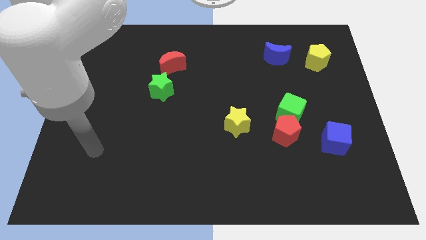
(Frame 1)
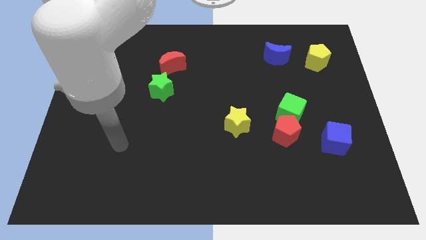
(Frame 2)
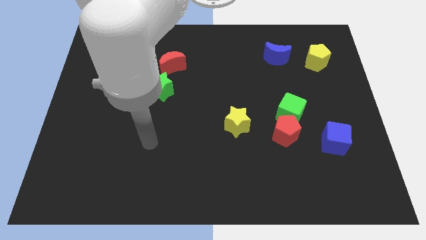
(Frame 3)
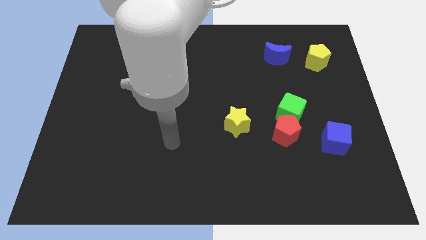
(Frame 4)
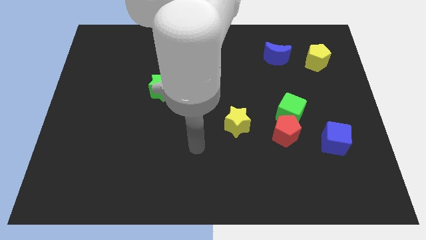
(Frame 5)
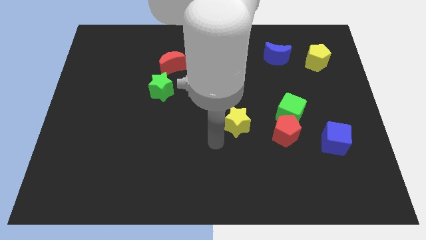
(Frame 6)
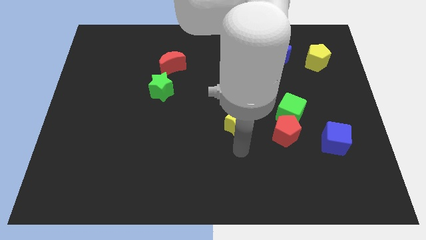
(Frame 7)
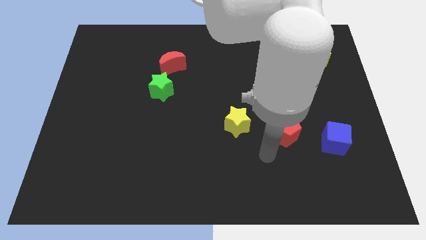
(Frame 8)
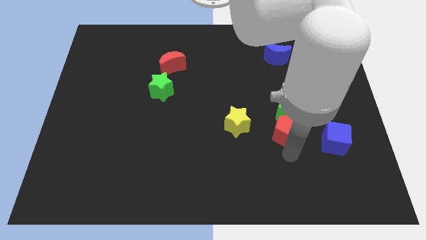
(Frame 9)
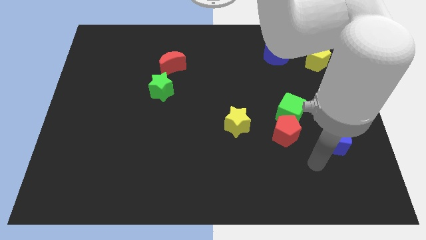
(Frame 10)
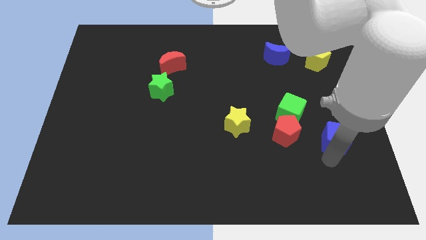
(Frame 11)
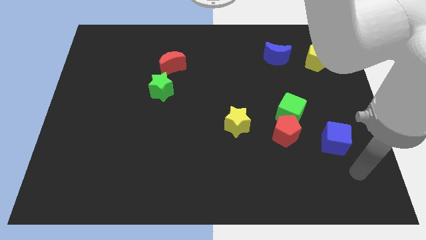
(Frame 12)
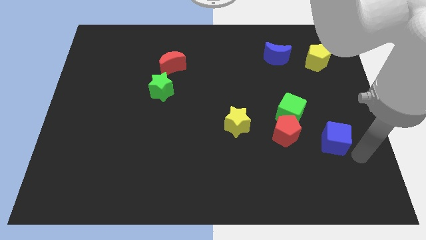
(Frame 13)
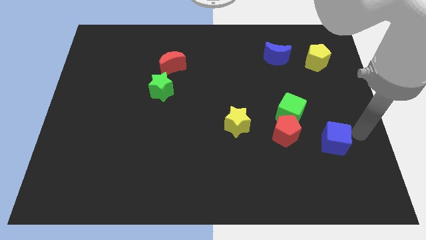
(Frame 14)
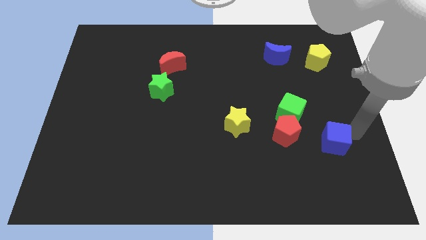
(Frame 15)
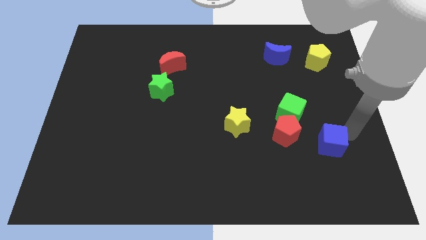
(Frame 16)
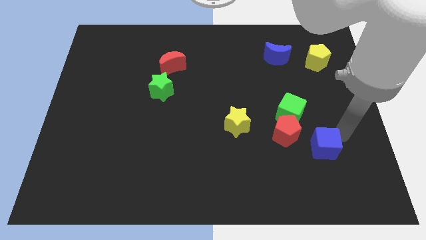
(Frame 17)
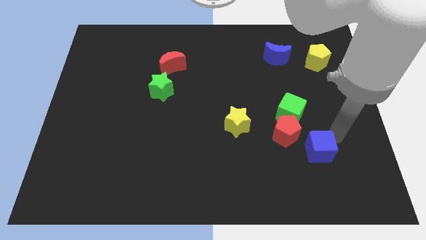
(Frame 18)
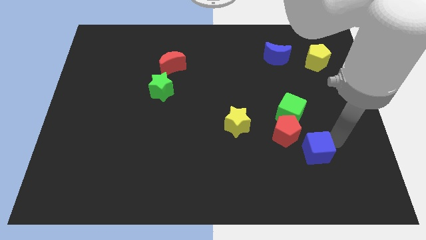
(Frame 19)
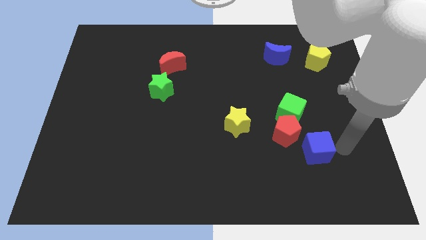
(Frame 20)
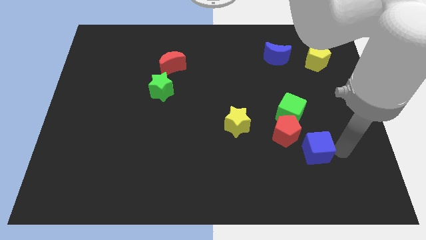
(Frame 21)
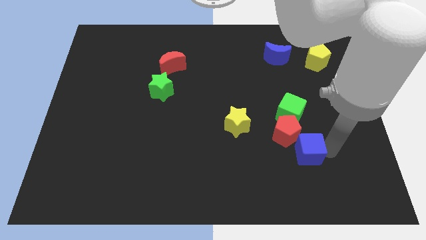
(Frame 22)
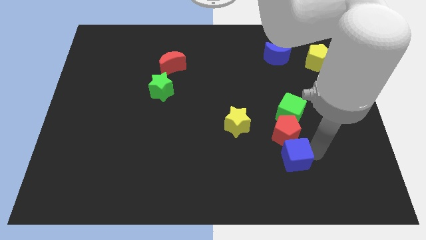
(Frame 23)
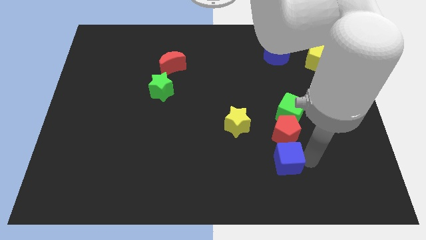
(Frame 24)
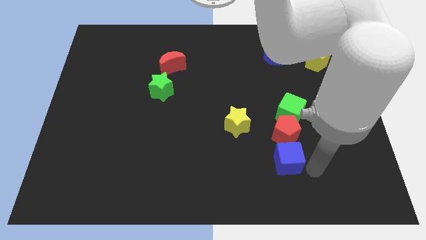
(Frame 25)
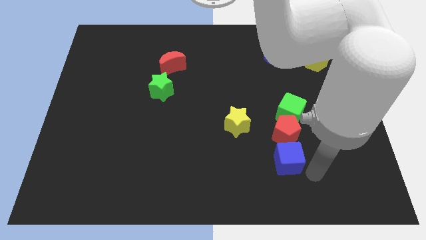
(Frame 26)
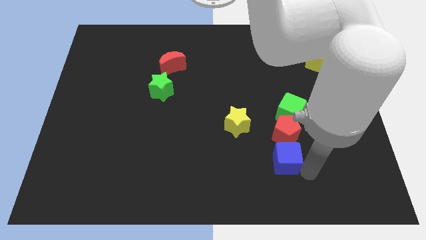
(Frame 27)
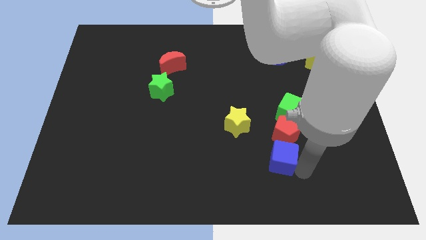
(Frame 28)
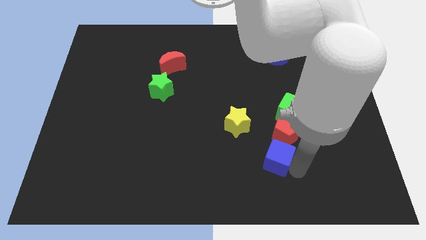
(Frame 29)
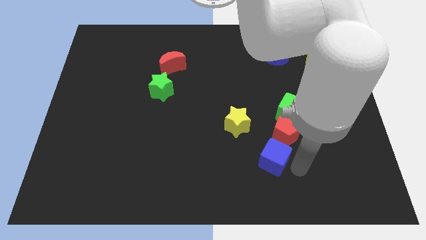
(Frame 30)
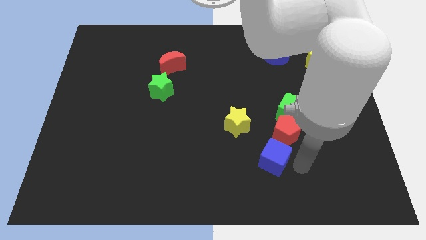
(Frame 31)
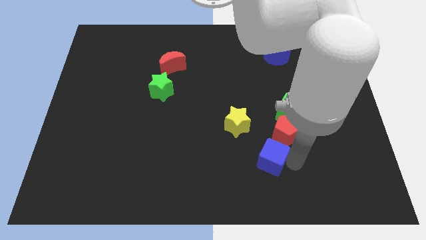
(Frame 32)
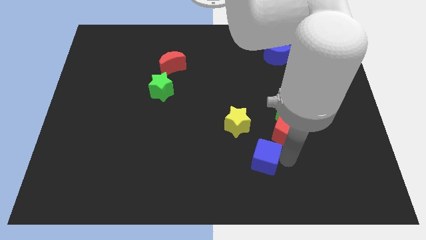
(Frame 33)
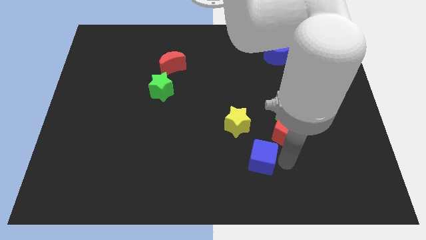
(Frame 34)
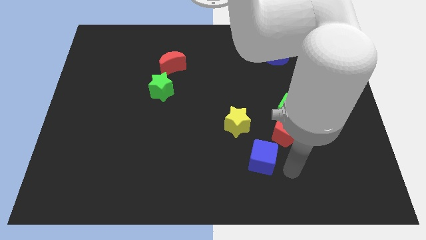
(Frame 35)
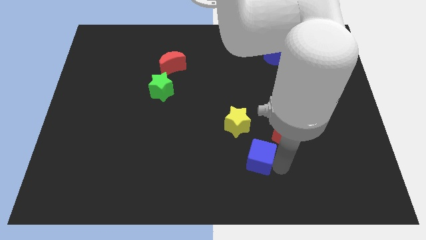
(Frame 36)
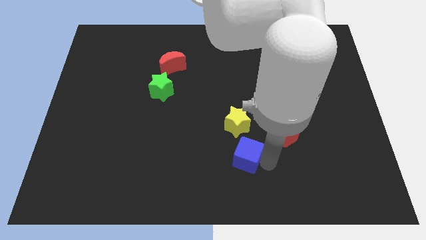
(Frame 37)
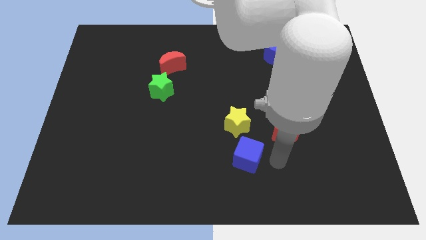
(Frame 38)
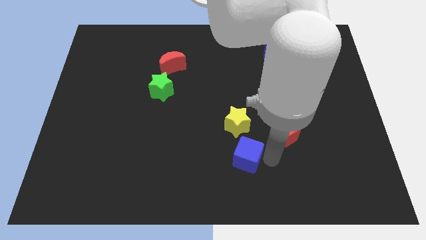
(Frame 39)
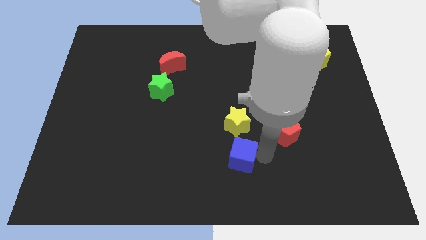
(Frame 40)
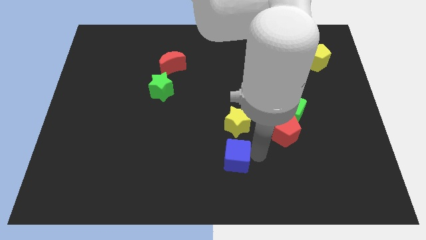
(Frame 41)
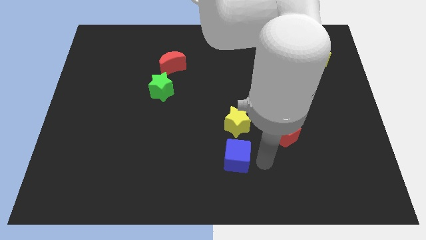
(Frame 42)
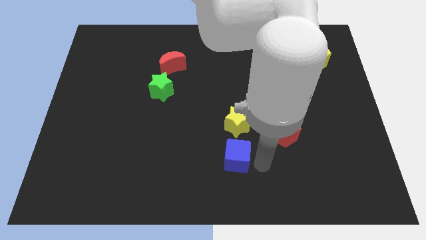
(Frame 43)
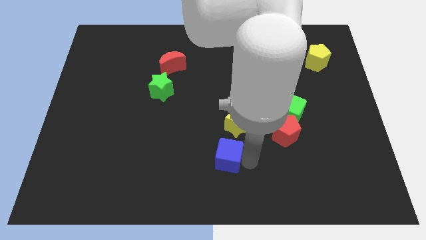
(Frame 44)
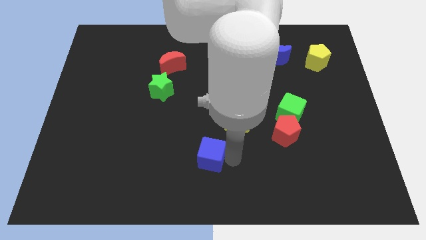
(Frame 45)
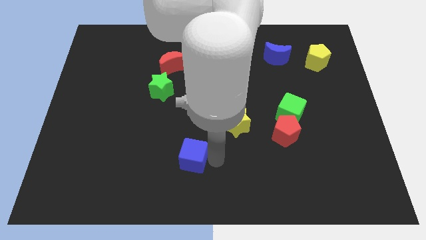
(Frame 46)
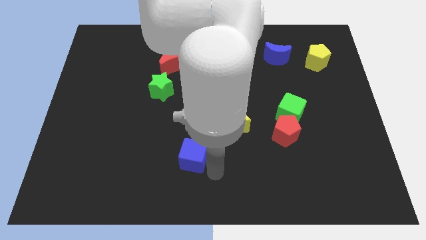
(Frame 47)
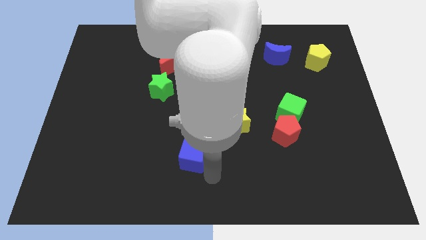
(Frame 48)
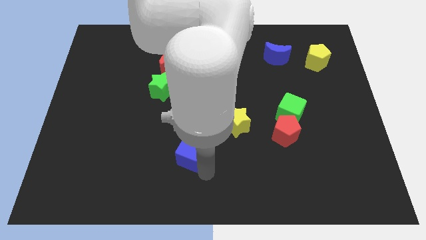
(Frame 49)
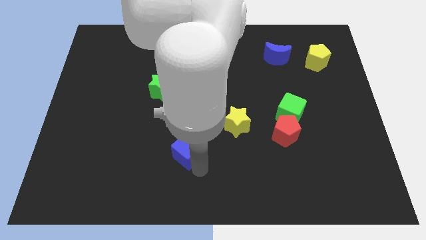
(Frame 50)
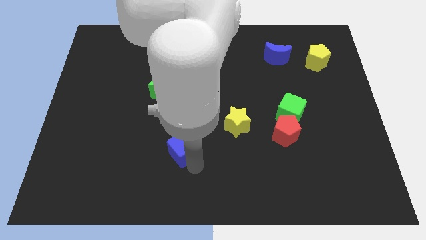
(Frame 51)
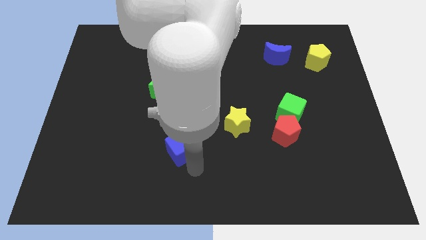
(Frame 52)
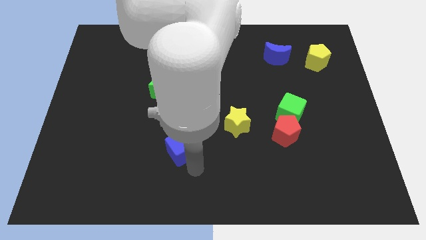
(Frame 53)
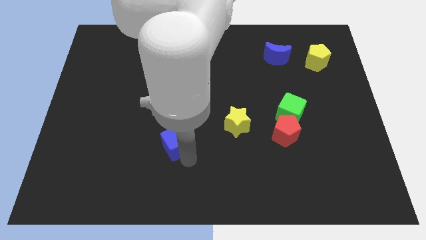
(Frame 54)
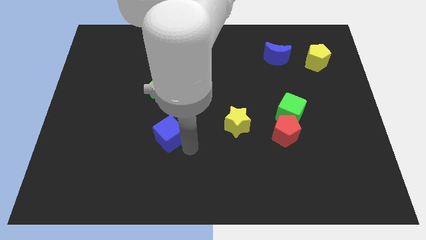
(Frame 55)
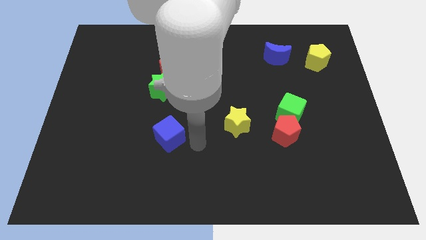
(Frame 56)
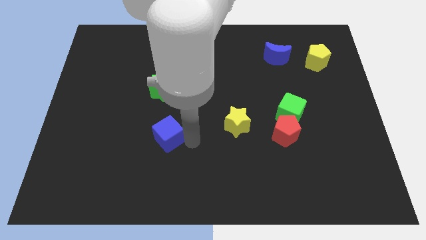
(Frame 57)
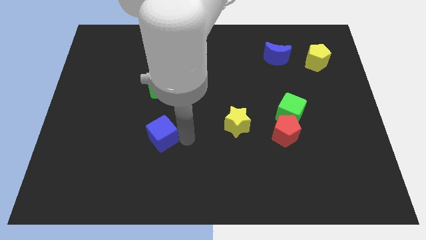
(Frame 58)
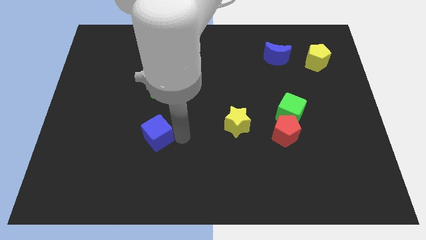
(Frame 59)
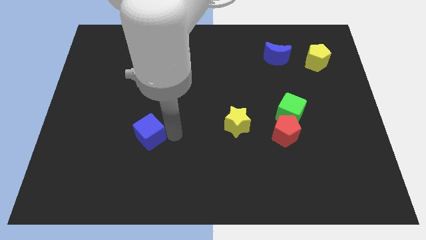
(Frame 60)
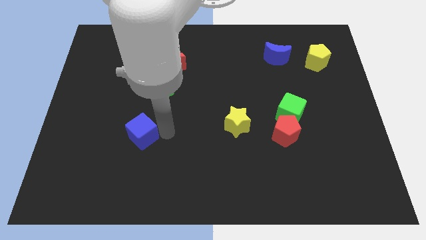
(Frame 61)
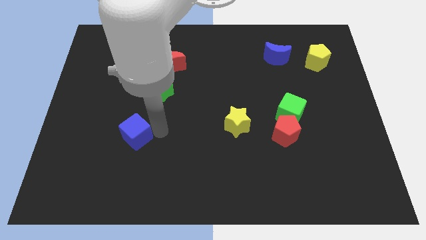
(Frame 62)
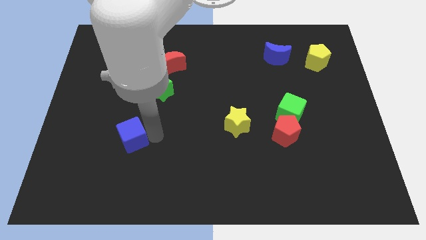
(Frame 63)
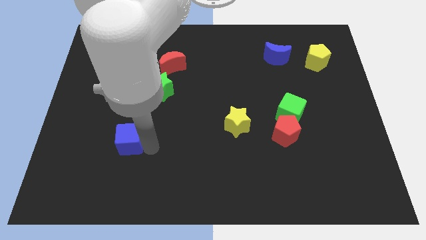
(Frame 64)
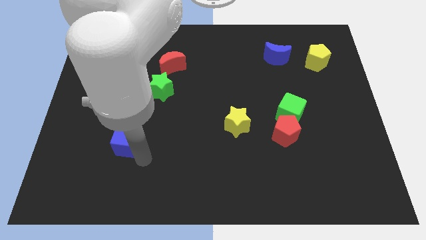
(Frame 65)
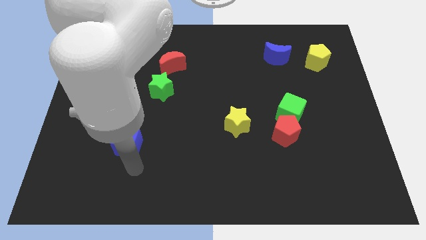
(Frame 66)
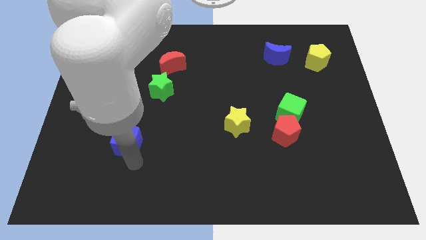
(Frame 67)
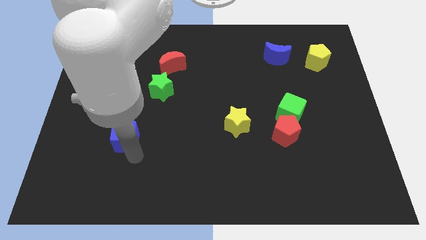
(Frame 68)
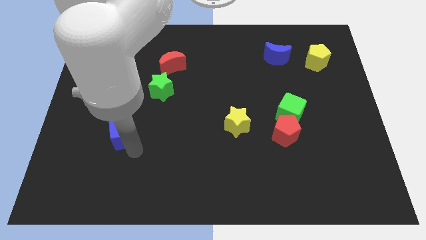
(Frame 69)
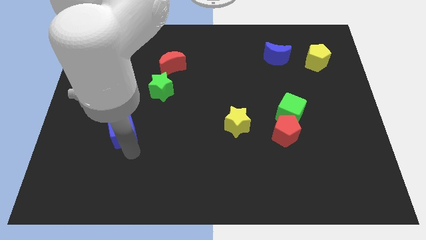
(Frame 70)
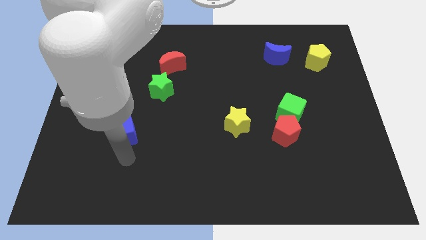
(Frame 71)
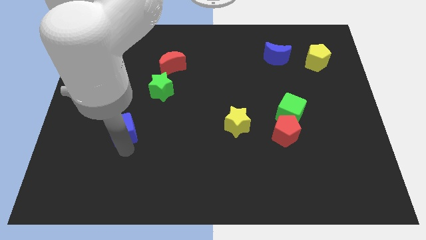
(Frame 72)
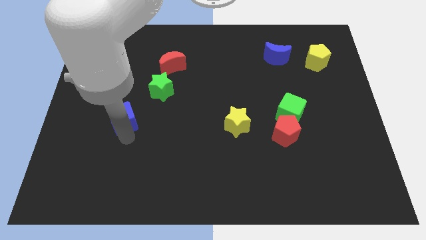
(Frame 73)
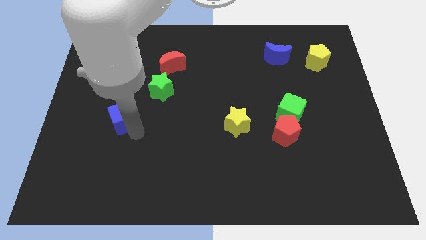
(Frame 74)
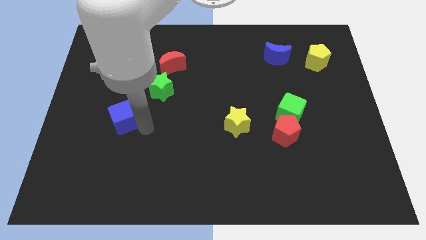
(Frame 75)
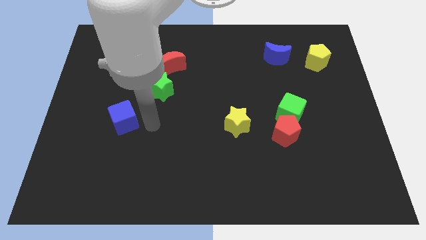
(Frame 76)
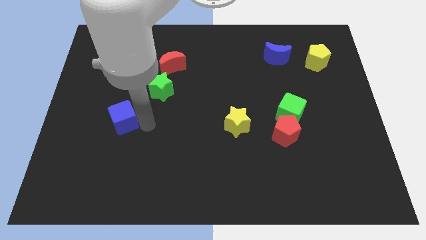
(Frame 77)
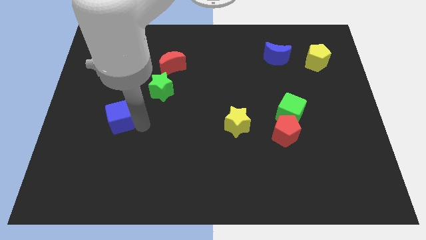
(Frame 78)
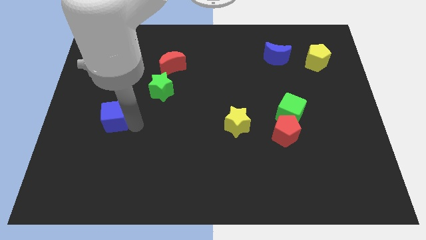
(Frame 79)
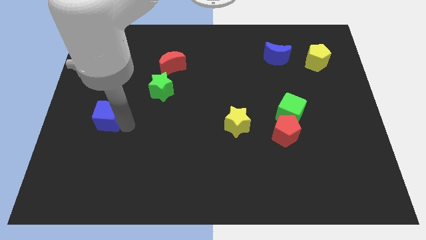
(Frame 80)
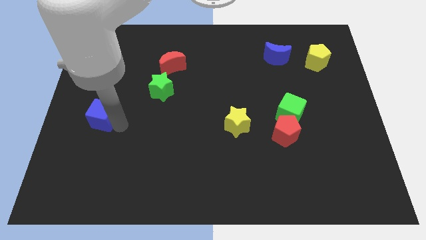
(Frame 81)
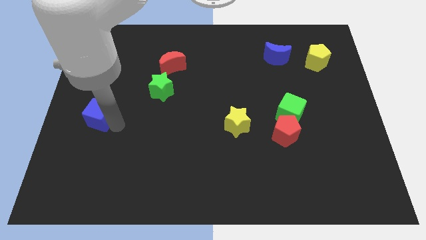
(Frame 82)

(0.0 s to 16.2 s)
slide the blue cube to the center left
